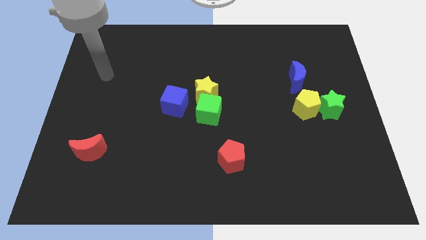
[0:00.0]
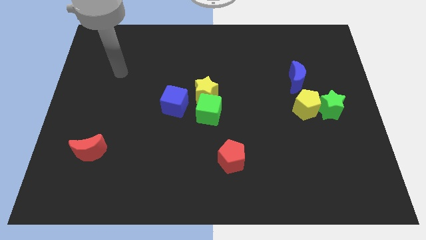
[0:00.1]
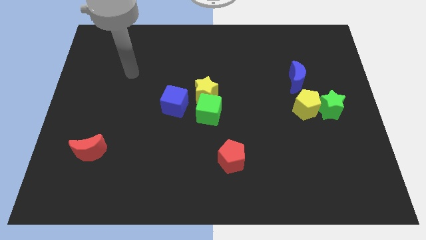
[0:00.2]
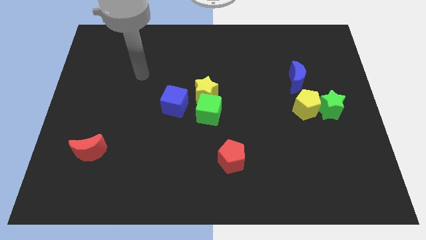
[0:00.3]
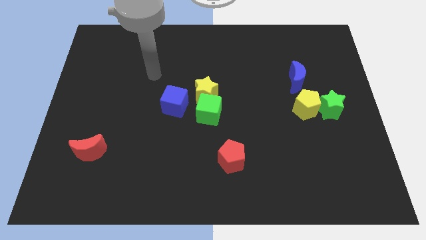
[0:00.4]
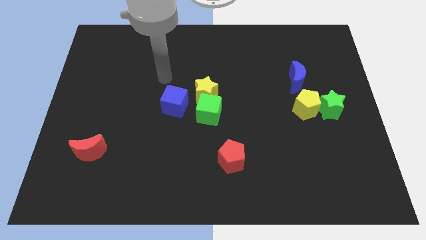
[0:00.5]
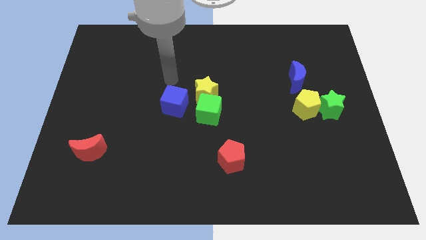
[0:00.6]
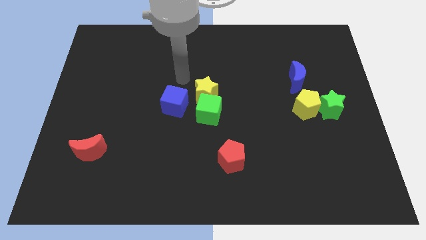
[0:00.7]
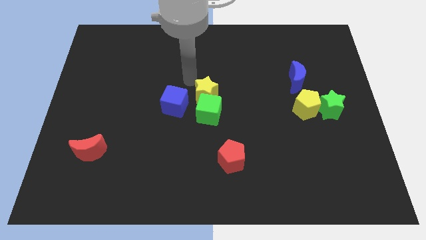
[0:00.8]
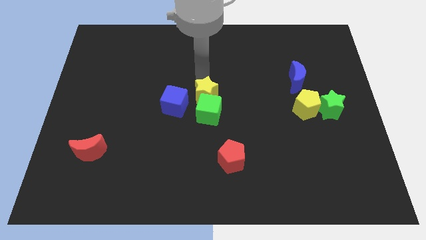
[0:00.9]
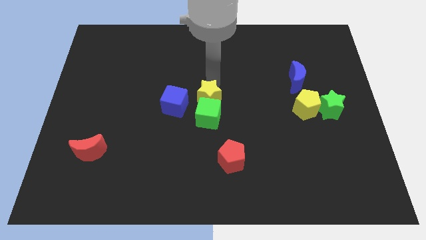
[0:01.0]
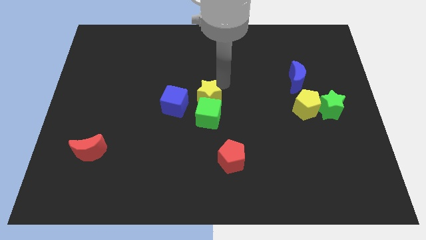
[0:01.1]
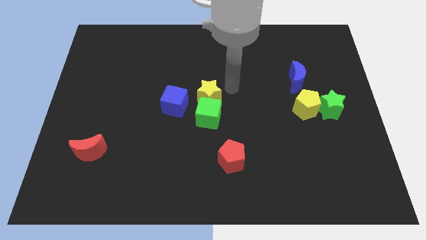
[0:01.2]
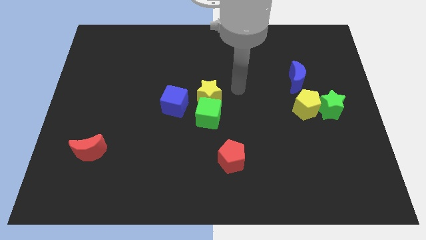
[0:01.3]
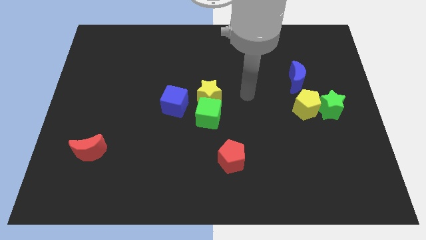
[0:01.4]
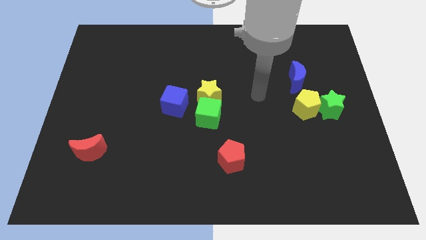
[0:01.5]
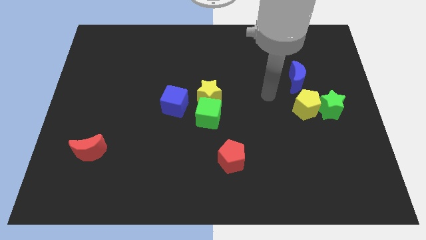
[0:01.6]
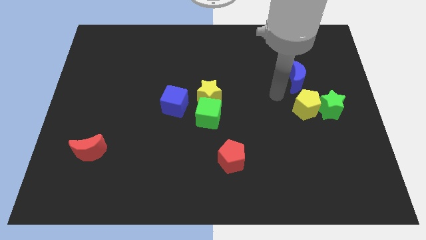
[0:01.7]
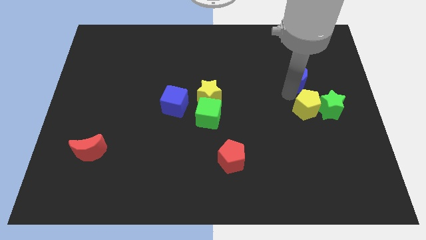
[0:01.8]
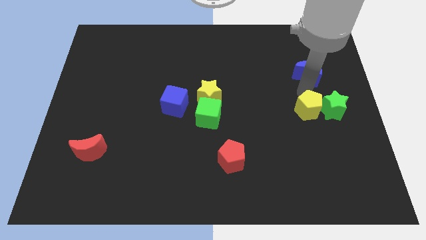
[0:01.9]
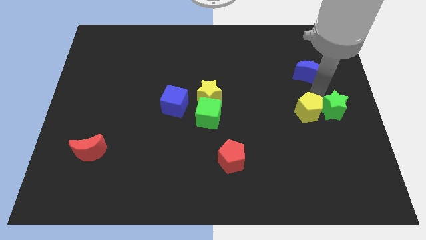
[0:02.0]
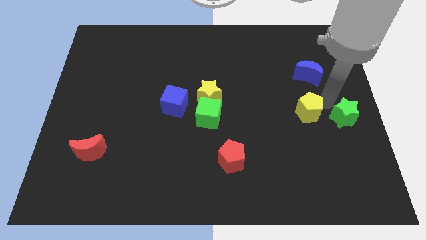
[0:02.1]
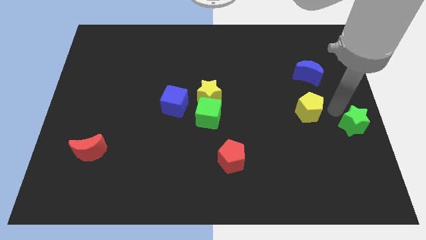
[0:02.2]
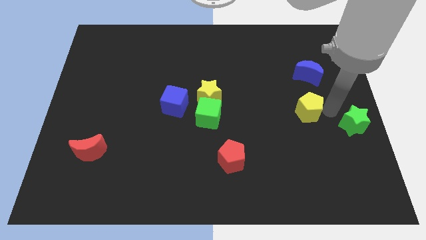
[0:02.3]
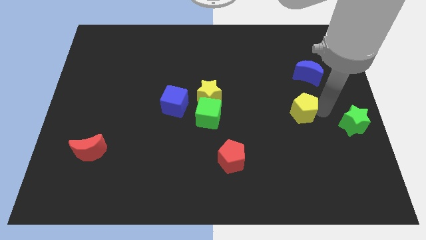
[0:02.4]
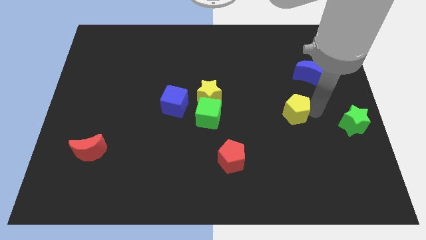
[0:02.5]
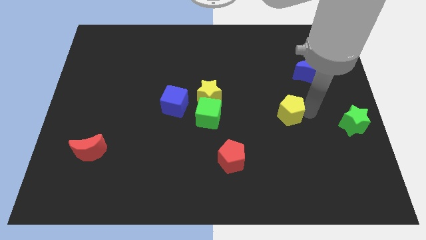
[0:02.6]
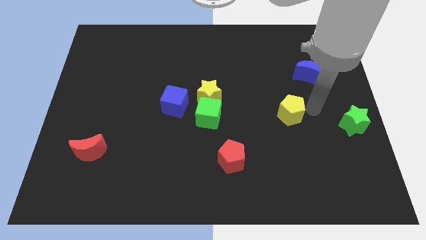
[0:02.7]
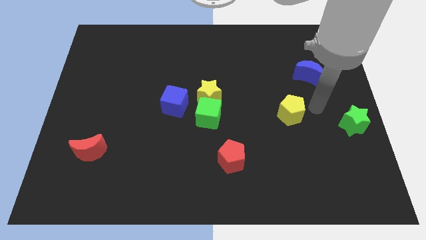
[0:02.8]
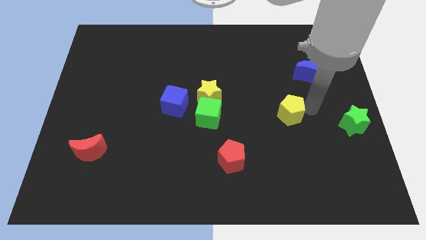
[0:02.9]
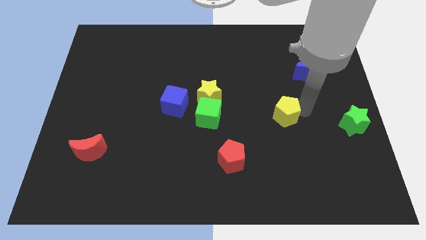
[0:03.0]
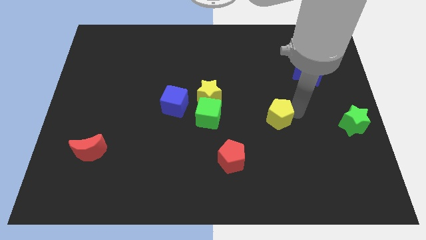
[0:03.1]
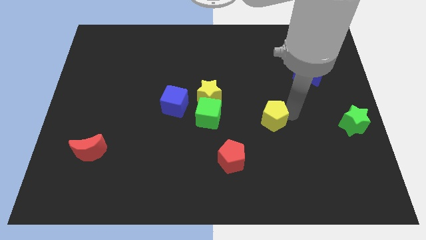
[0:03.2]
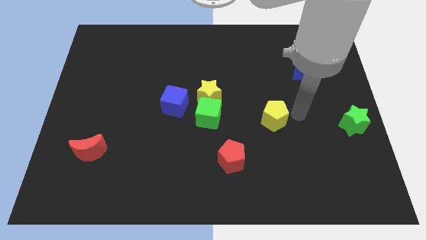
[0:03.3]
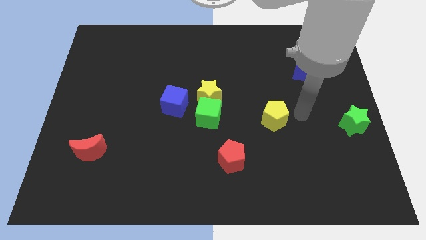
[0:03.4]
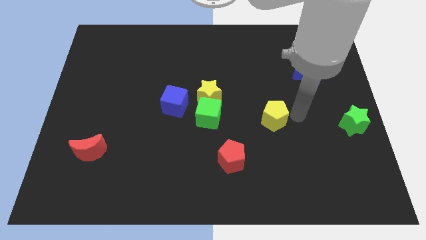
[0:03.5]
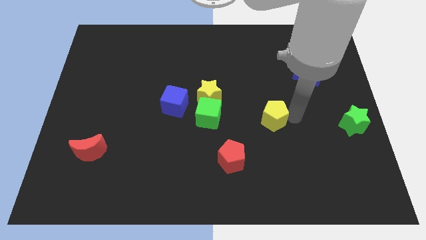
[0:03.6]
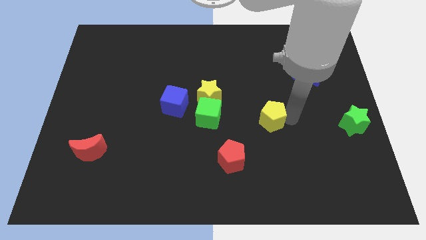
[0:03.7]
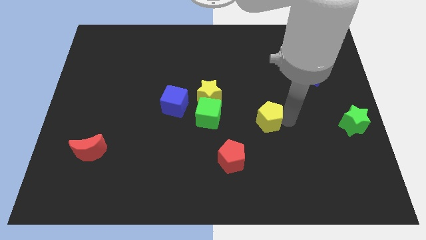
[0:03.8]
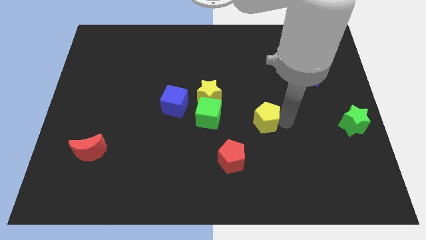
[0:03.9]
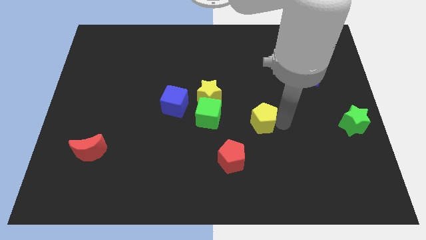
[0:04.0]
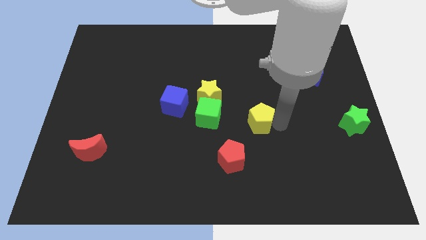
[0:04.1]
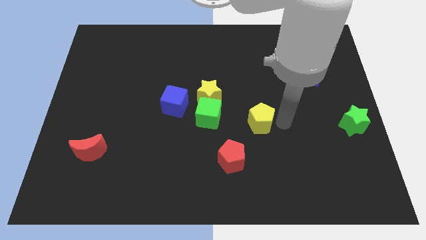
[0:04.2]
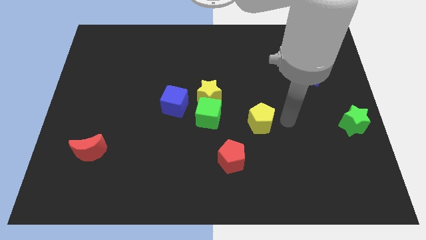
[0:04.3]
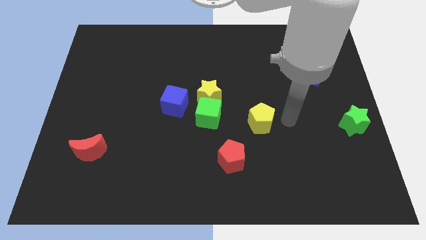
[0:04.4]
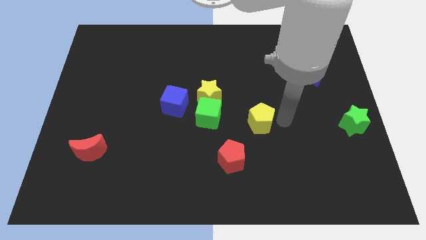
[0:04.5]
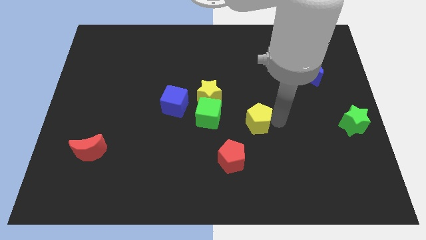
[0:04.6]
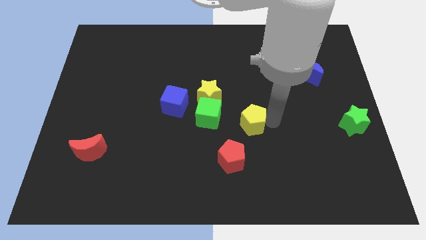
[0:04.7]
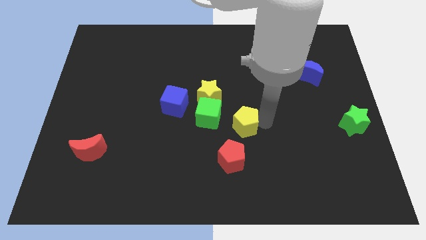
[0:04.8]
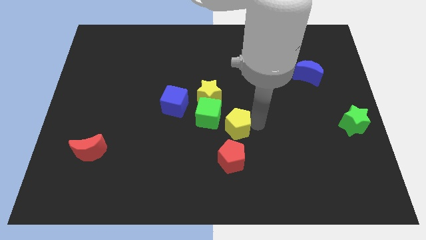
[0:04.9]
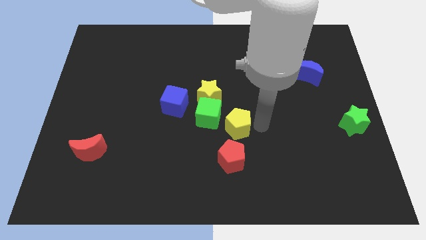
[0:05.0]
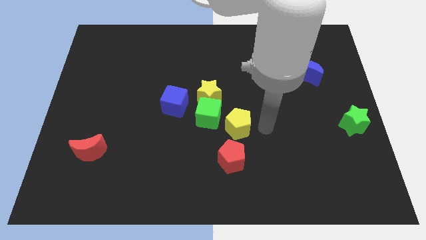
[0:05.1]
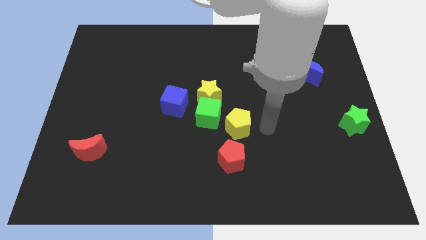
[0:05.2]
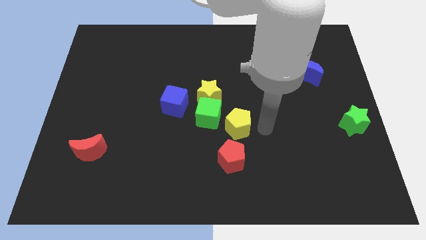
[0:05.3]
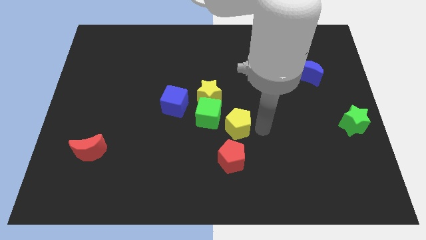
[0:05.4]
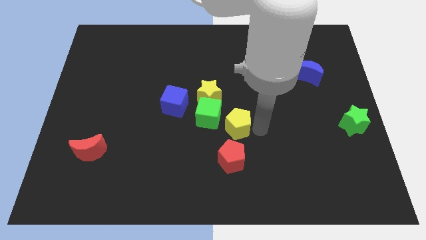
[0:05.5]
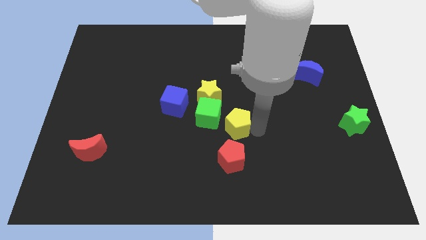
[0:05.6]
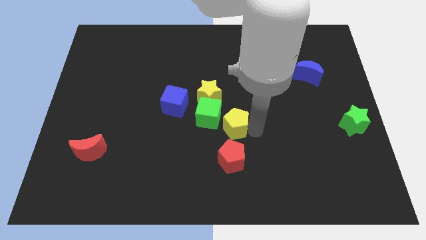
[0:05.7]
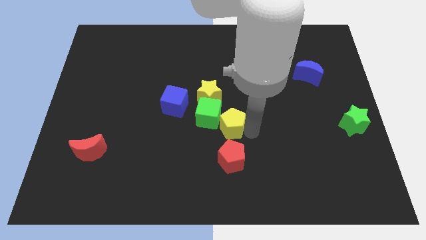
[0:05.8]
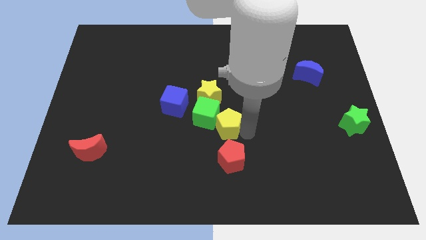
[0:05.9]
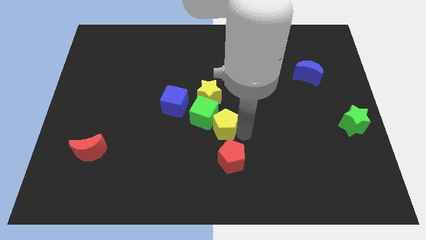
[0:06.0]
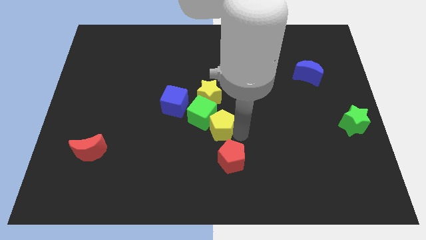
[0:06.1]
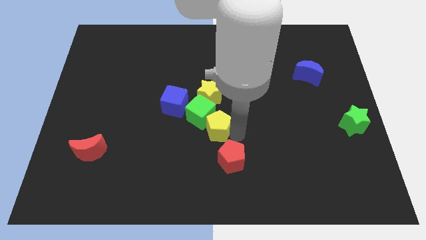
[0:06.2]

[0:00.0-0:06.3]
put the yellow pentagon diagonally down and to the right of the blue cube

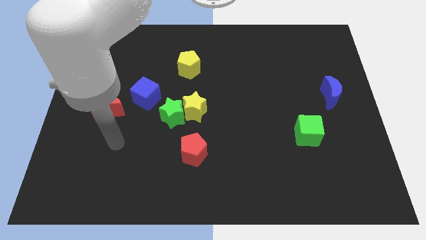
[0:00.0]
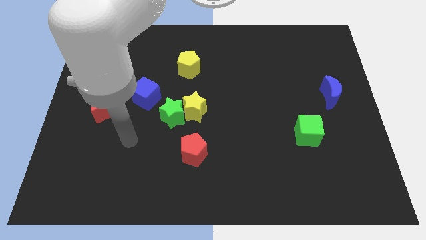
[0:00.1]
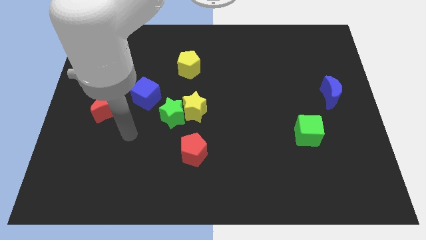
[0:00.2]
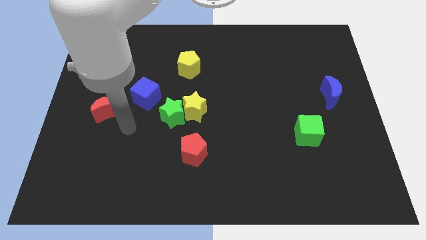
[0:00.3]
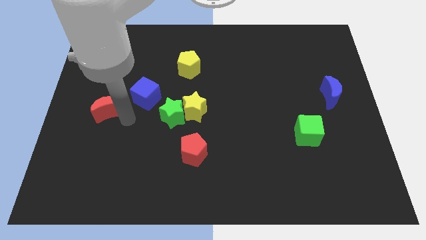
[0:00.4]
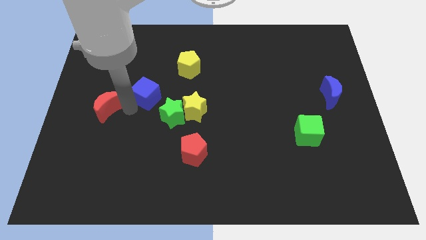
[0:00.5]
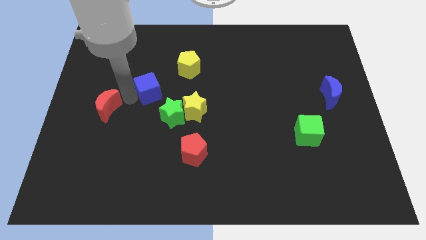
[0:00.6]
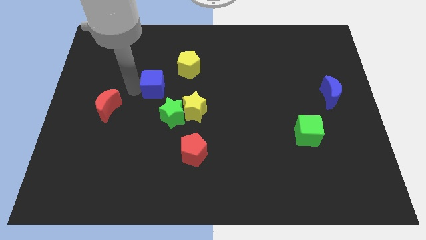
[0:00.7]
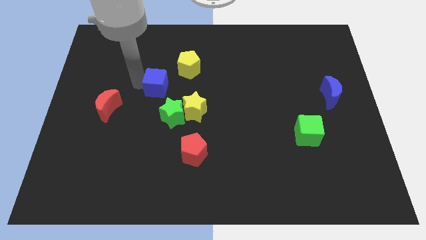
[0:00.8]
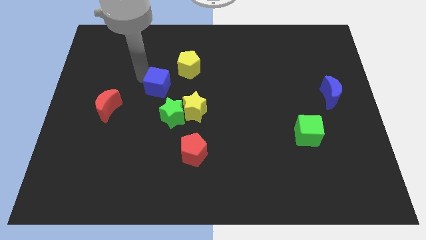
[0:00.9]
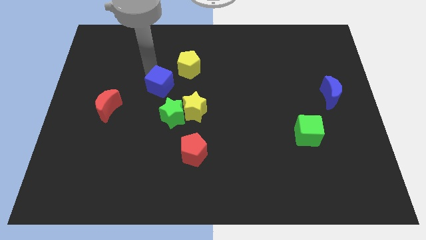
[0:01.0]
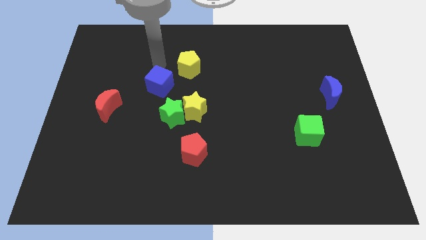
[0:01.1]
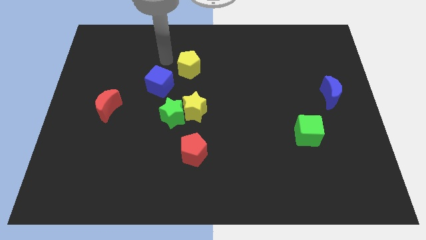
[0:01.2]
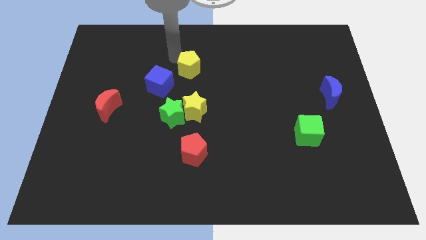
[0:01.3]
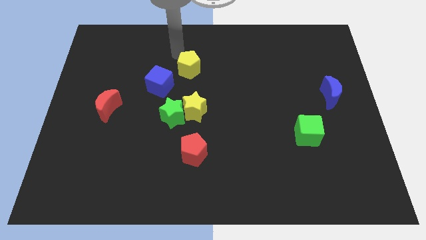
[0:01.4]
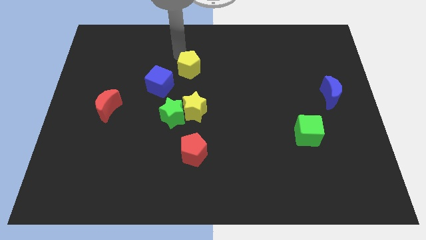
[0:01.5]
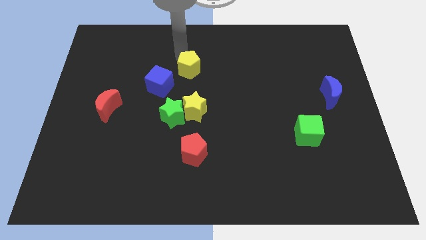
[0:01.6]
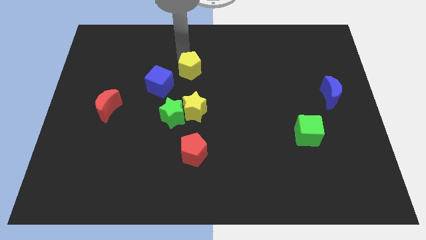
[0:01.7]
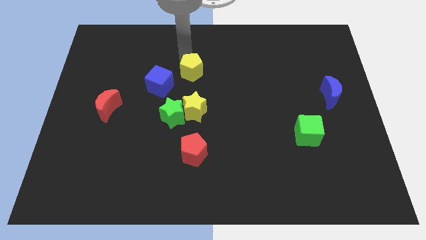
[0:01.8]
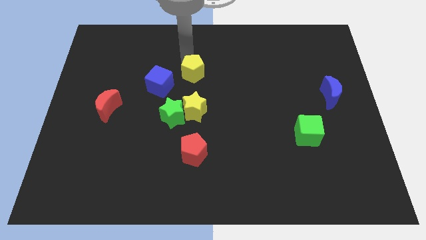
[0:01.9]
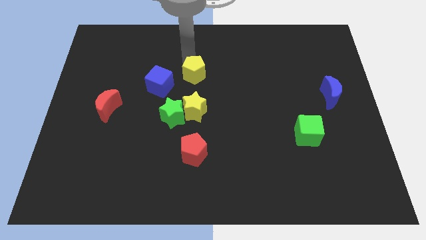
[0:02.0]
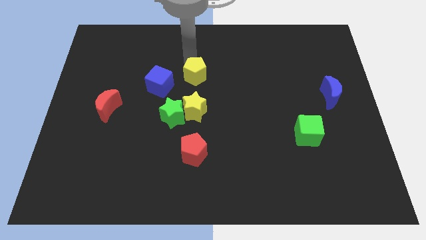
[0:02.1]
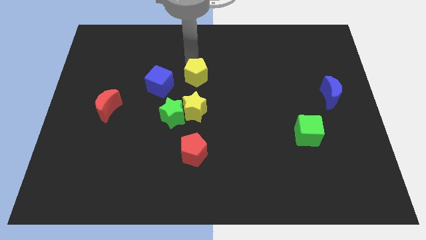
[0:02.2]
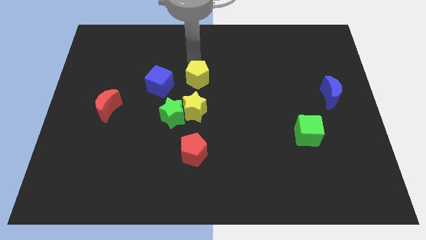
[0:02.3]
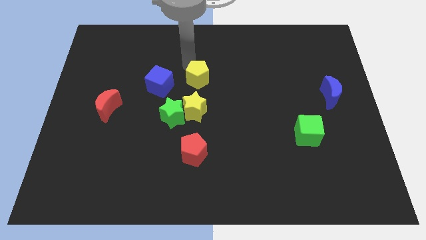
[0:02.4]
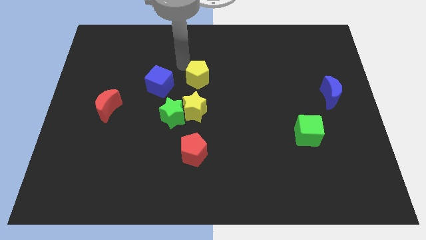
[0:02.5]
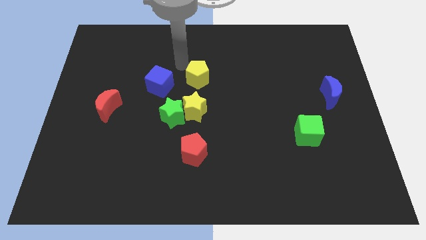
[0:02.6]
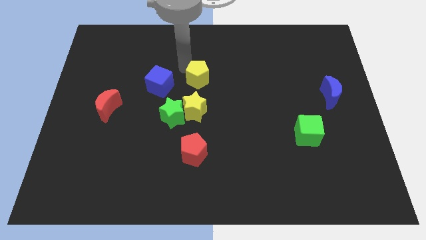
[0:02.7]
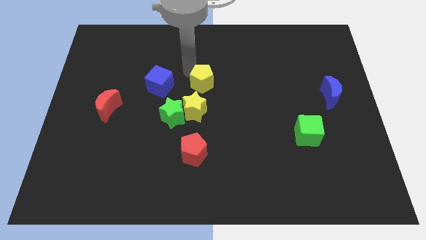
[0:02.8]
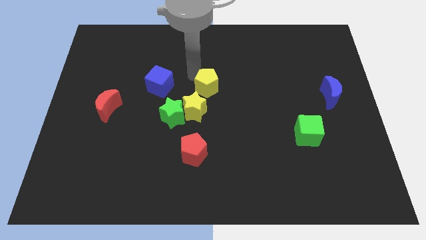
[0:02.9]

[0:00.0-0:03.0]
slide the yellow pentagon to the top right side of the yellow star
